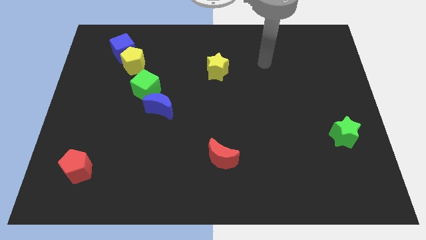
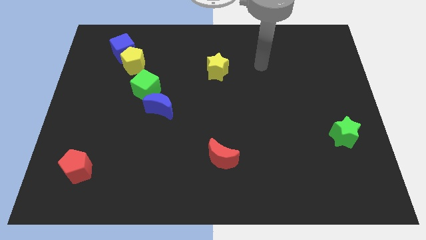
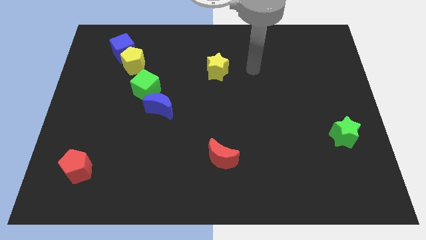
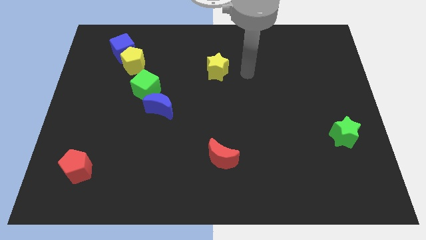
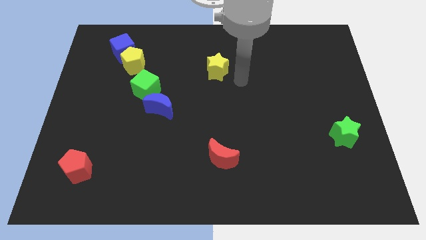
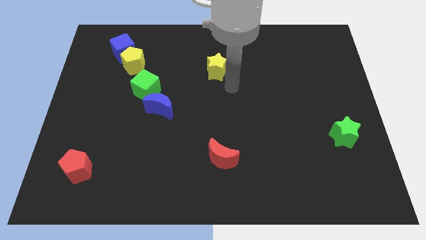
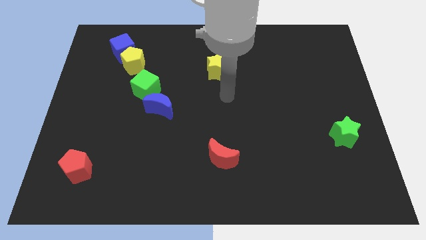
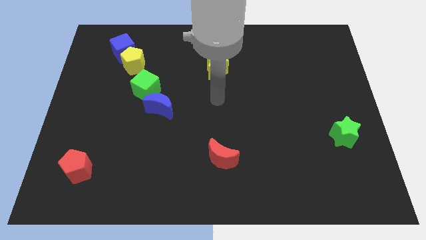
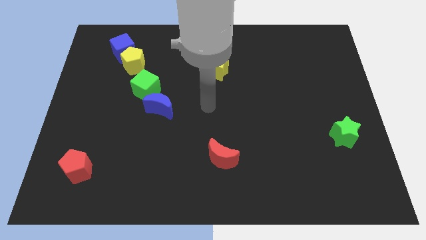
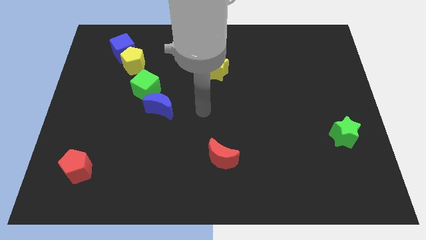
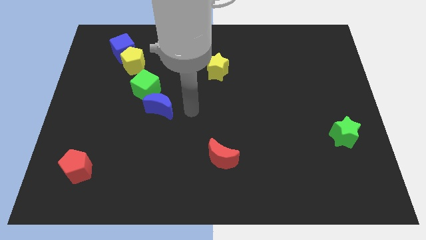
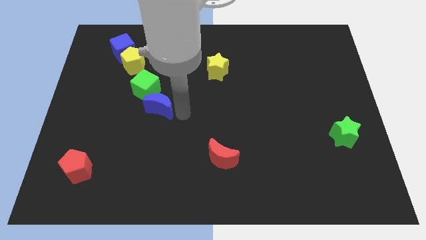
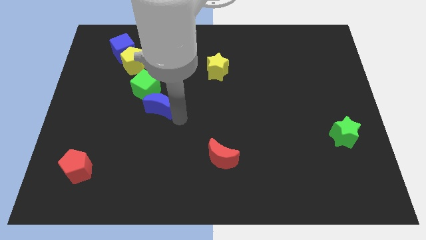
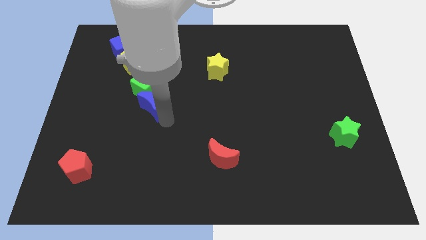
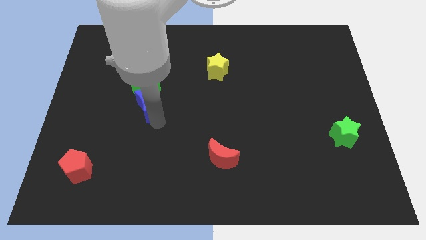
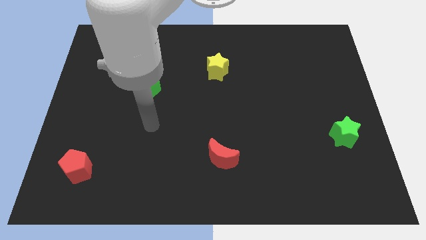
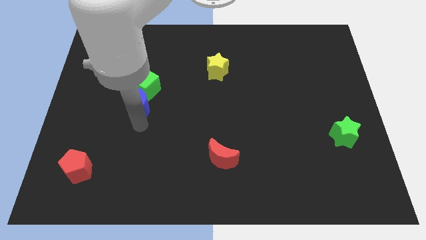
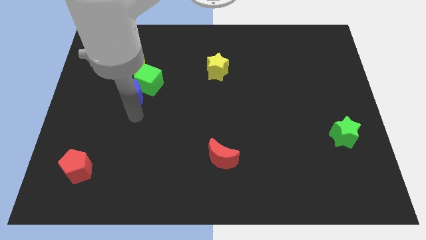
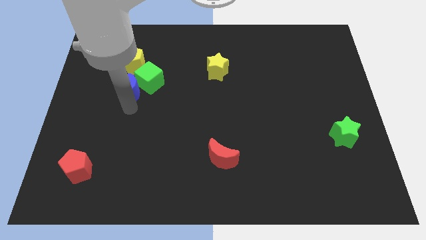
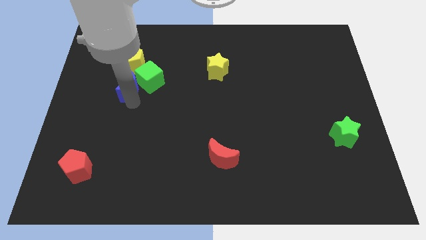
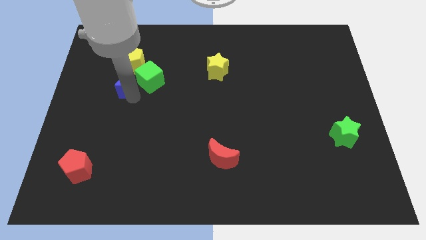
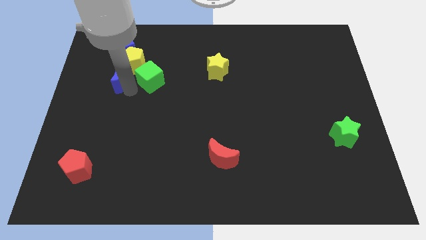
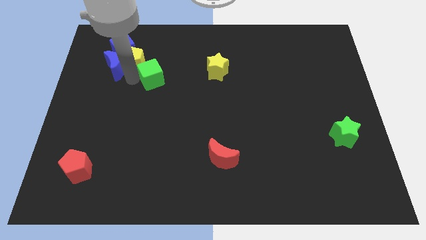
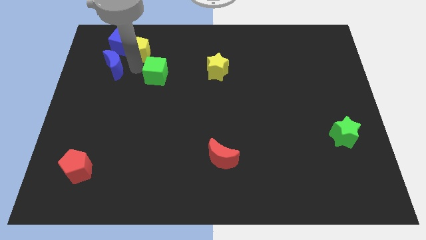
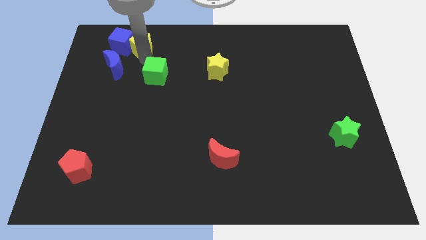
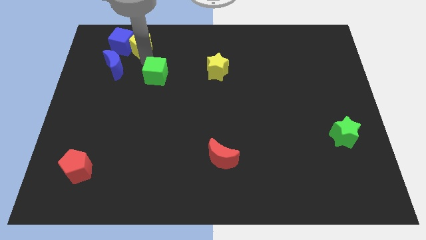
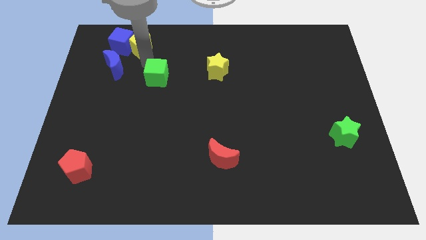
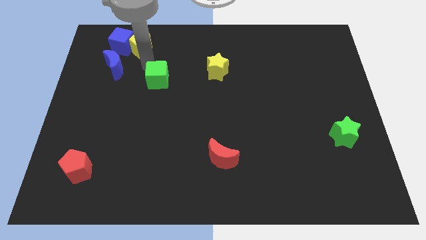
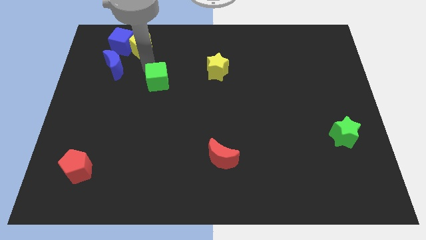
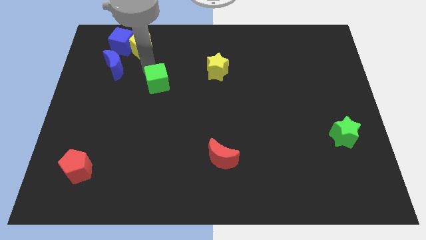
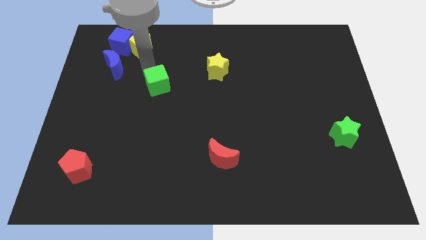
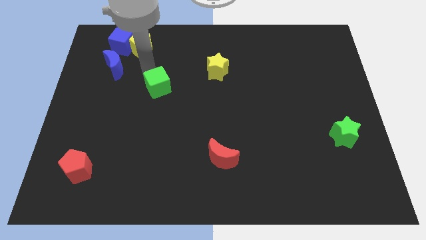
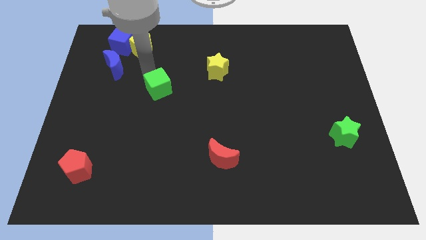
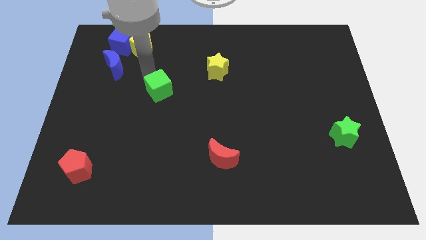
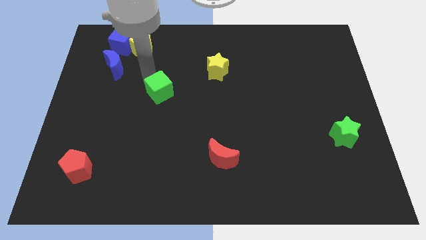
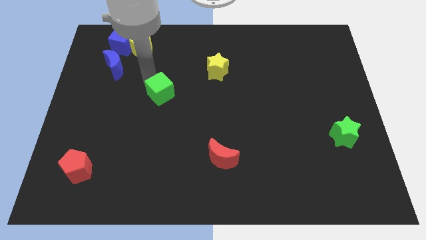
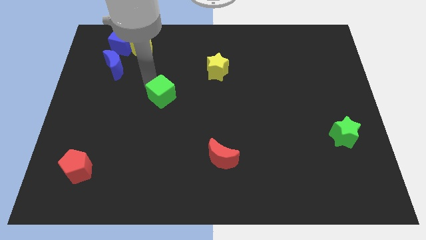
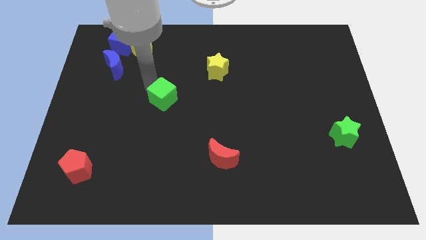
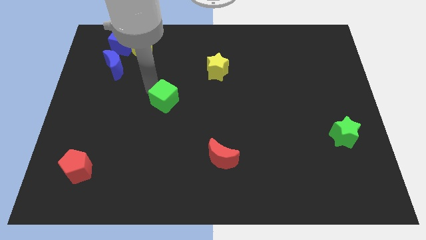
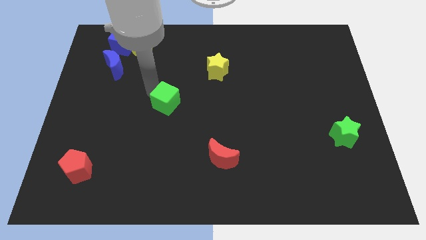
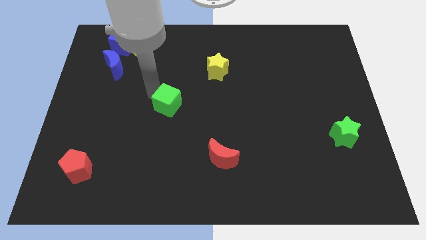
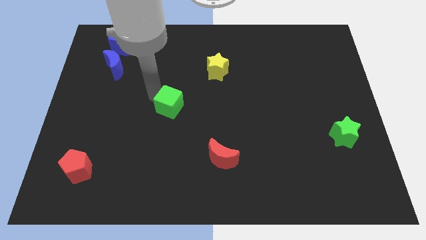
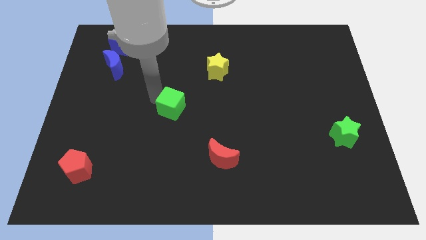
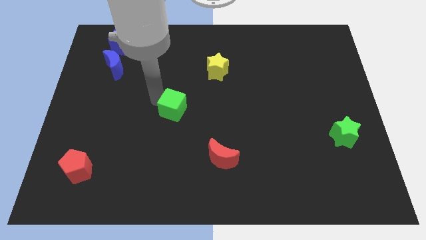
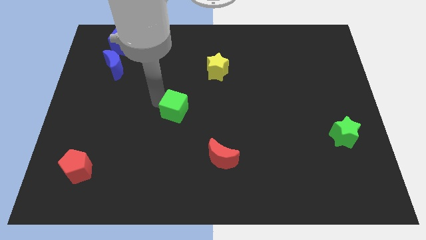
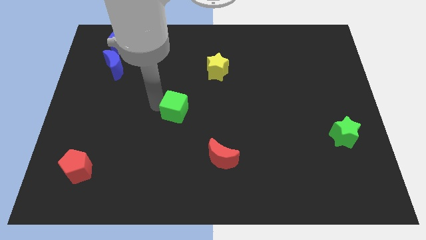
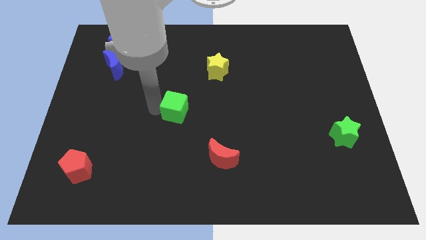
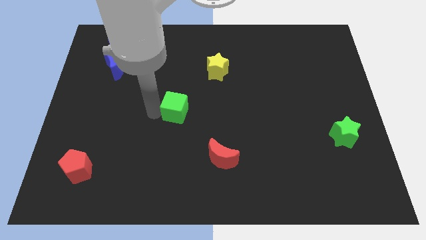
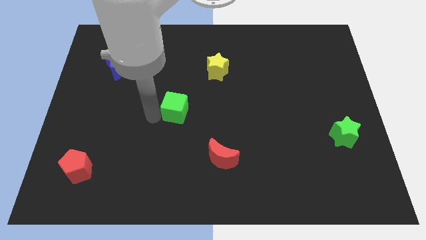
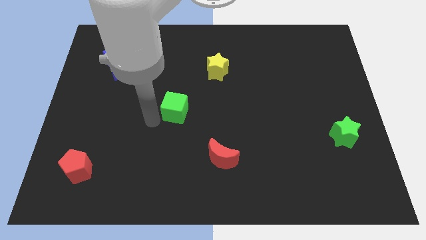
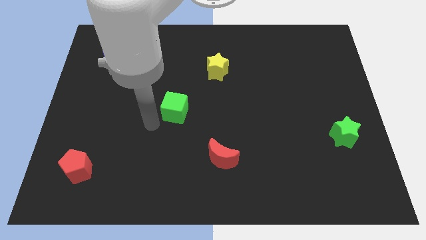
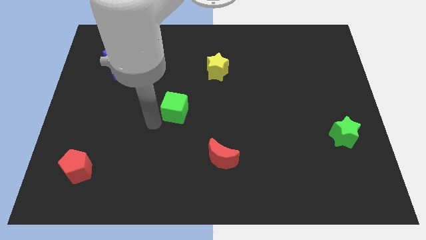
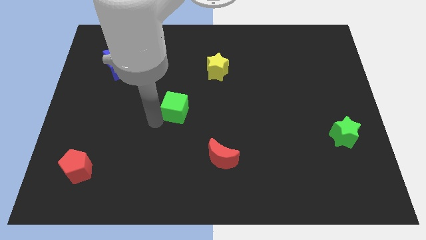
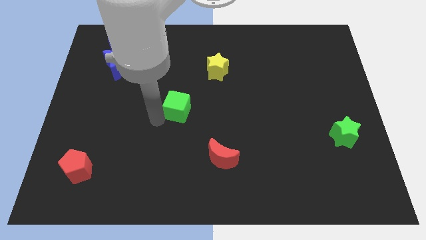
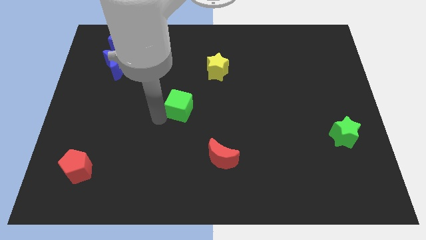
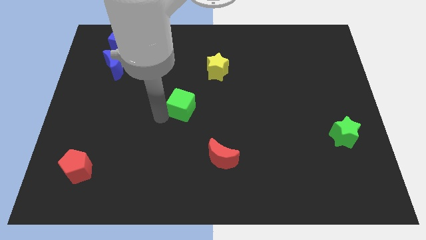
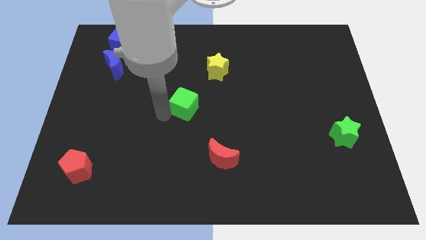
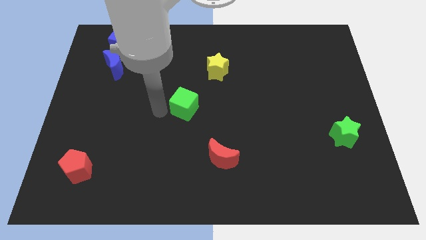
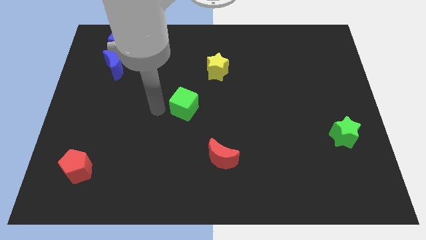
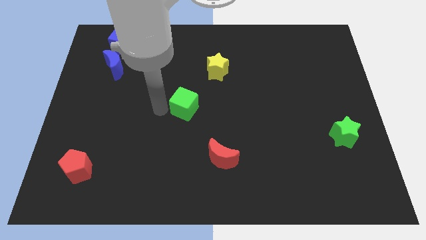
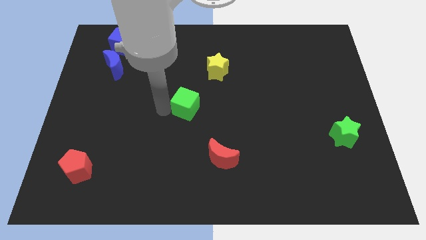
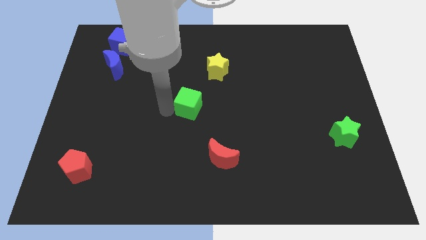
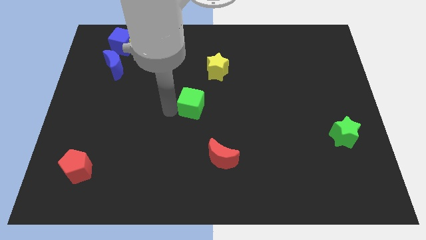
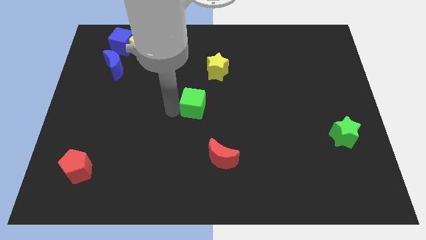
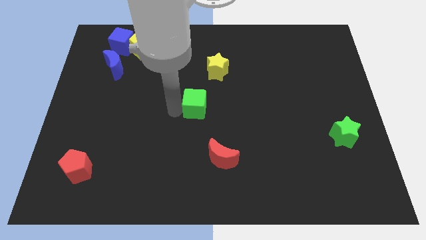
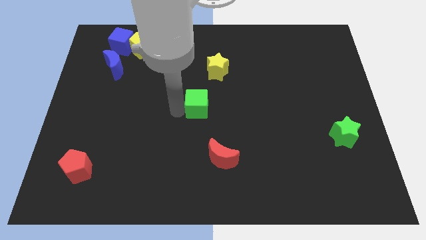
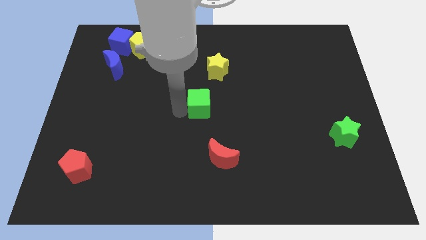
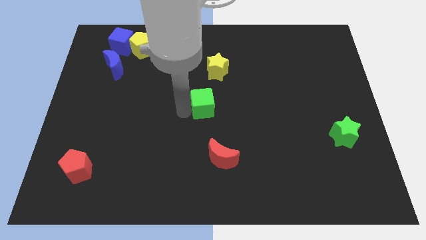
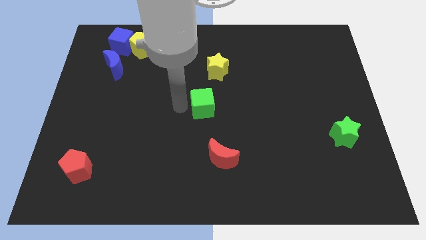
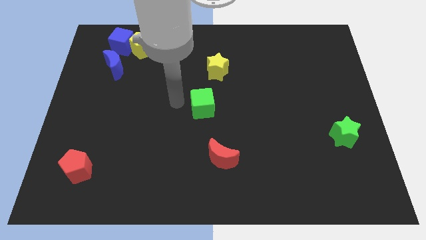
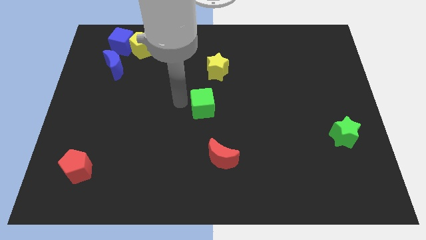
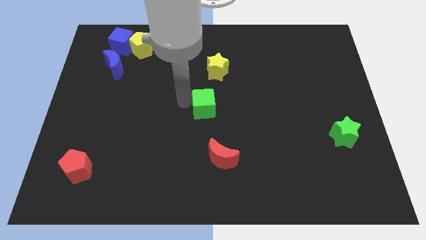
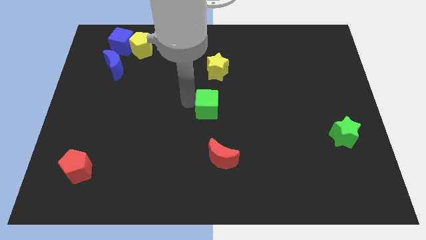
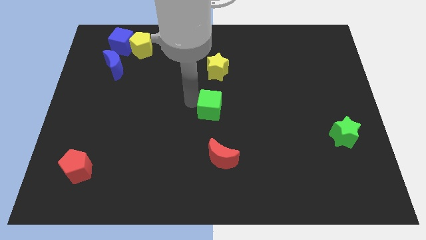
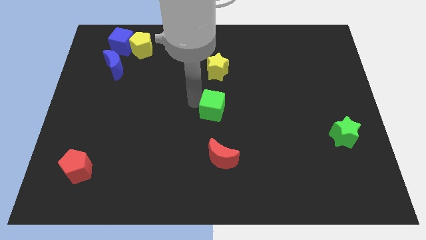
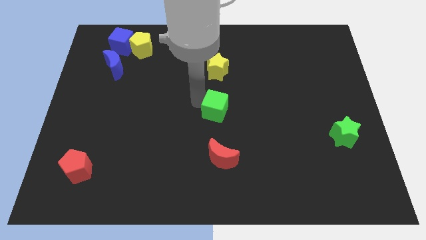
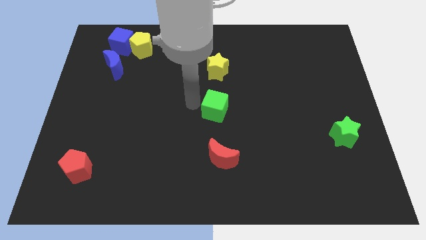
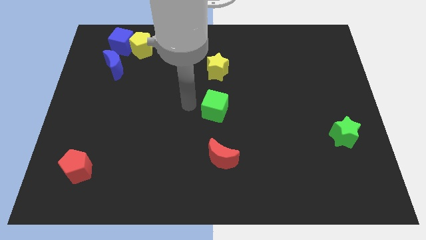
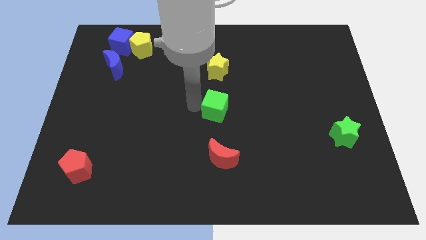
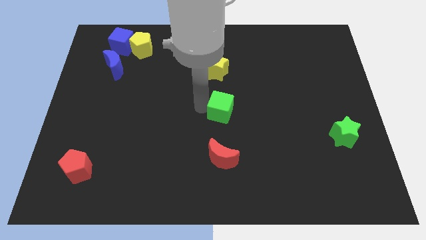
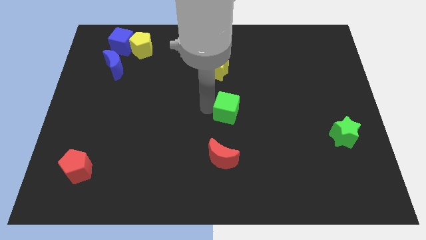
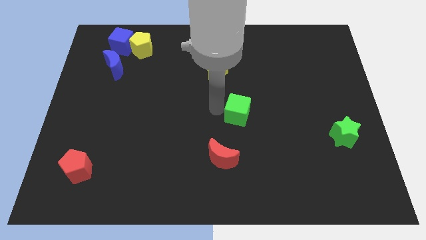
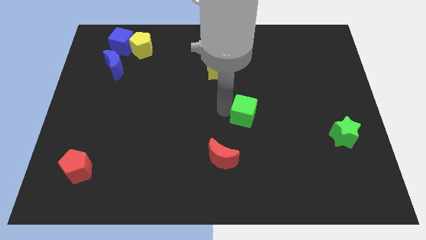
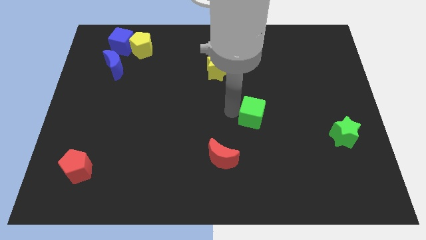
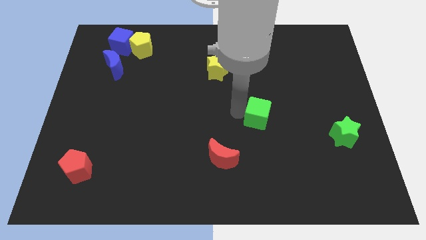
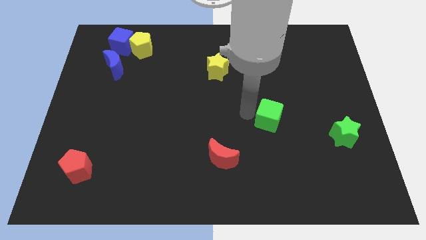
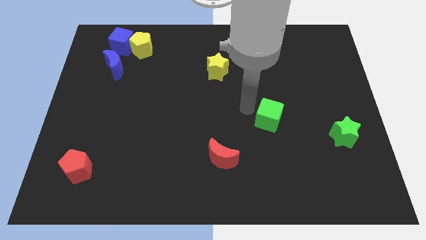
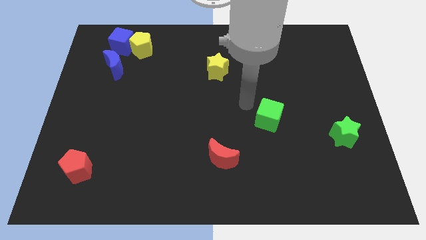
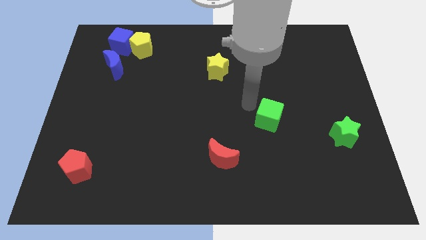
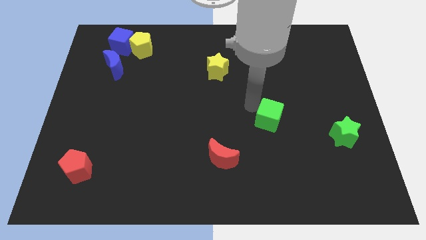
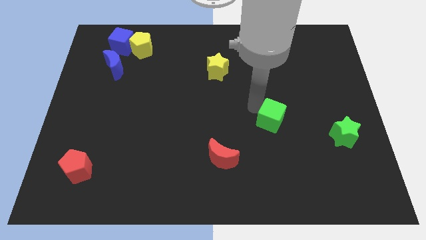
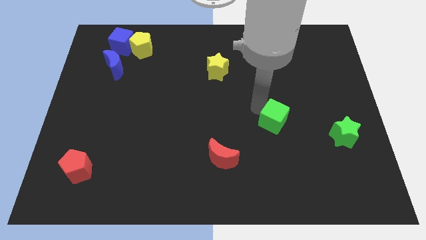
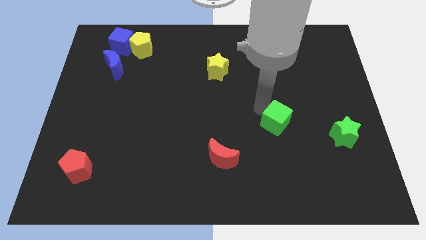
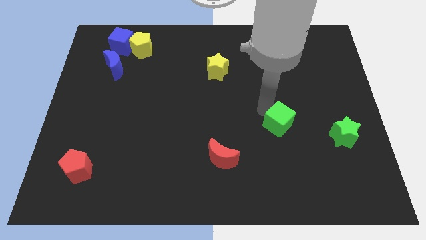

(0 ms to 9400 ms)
put the green cube to the left side of the green star
